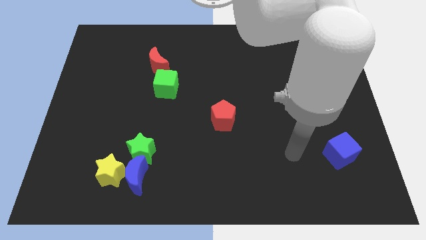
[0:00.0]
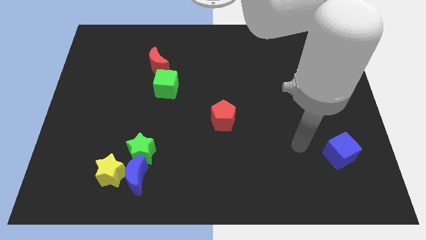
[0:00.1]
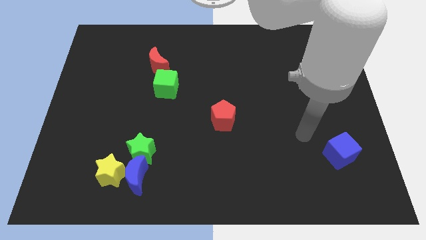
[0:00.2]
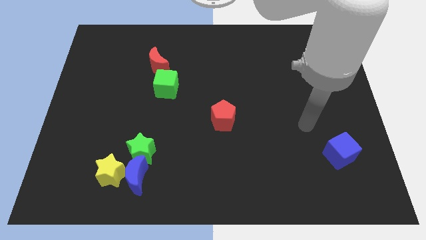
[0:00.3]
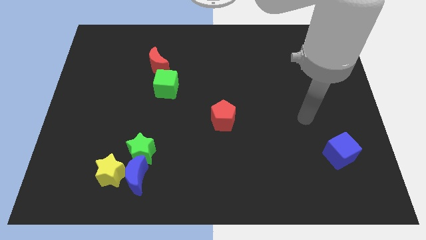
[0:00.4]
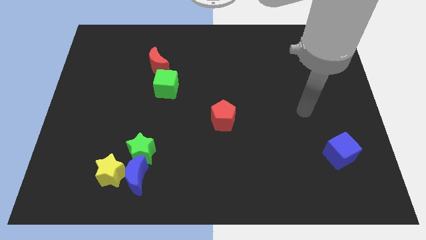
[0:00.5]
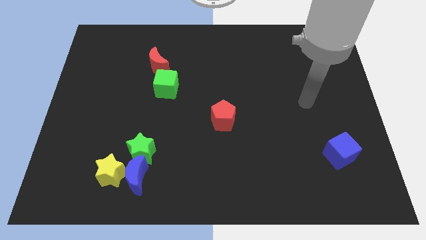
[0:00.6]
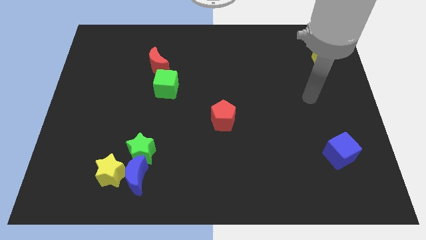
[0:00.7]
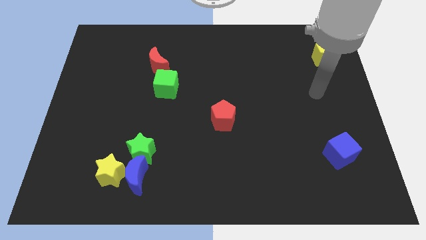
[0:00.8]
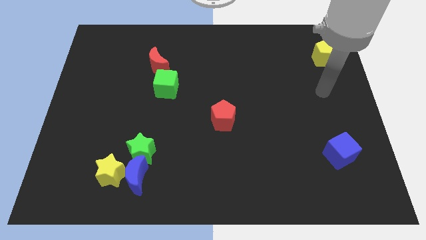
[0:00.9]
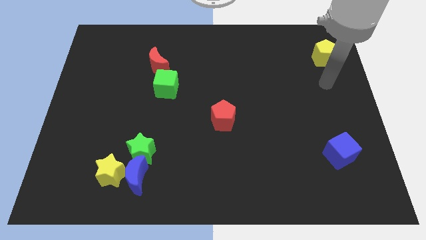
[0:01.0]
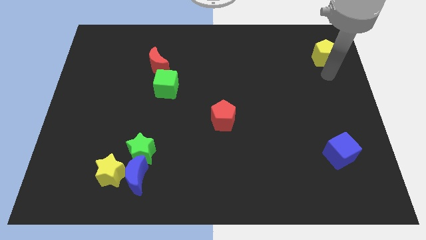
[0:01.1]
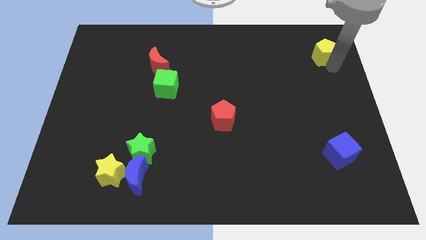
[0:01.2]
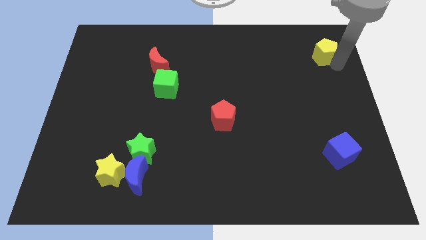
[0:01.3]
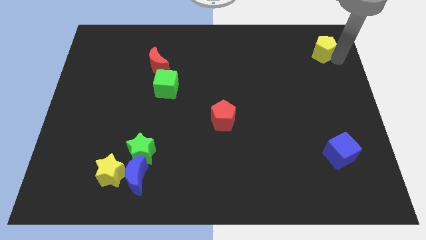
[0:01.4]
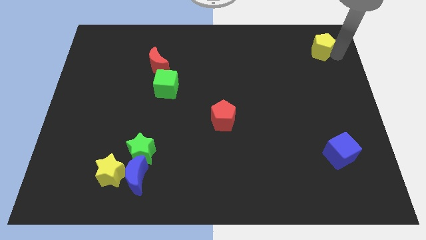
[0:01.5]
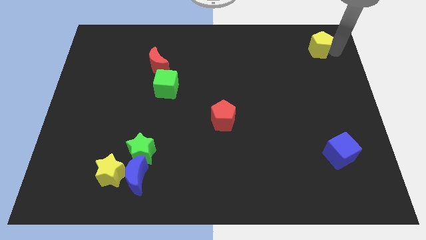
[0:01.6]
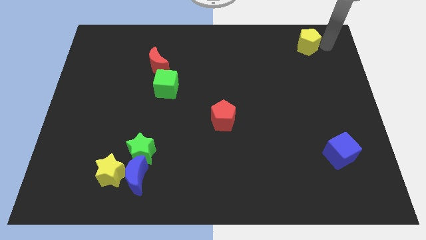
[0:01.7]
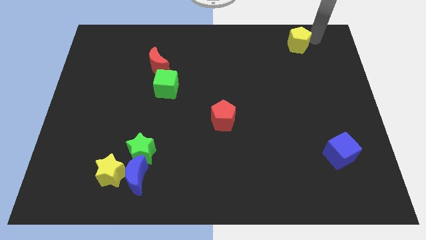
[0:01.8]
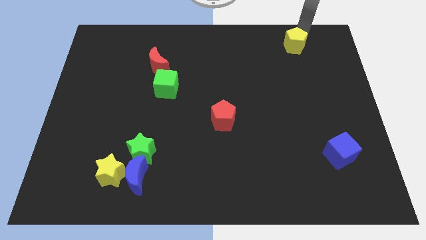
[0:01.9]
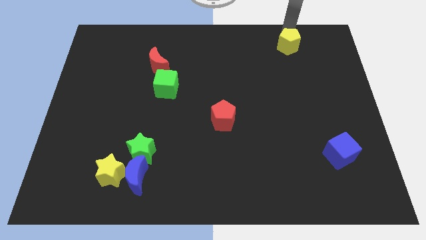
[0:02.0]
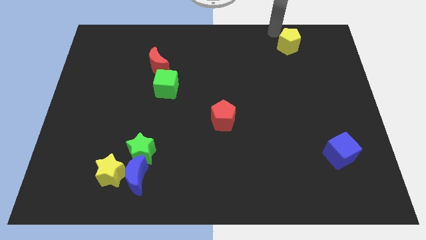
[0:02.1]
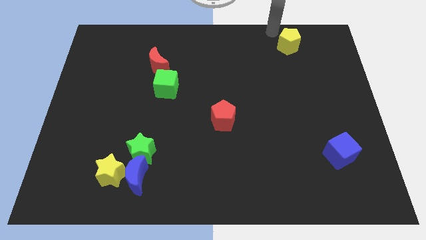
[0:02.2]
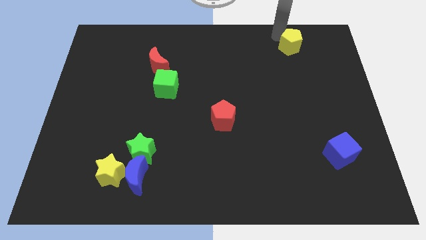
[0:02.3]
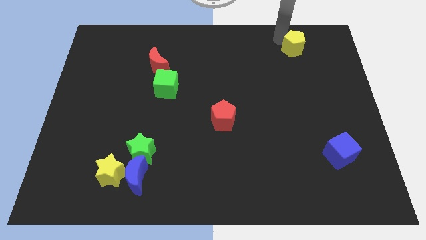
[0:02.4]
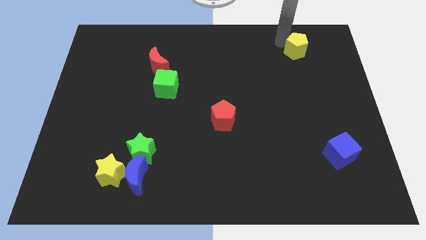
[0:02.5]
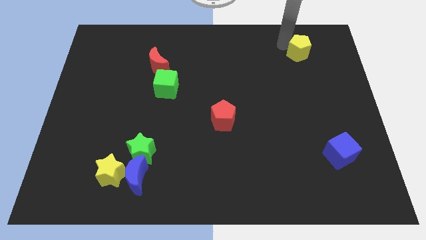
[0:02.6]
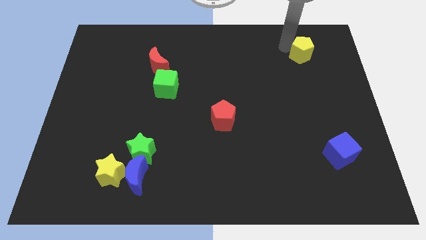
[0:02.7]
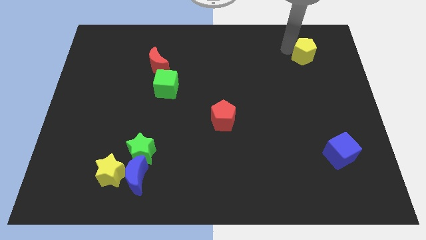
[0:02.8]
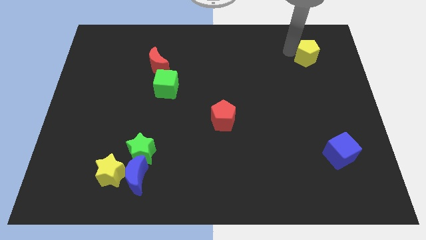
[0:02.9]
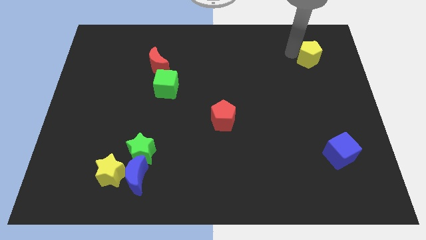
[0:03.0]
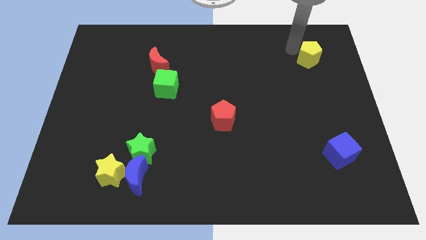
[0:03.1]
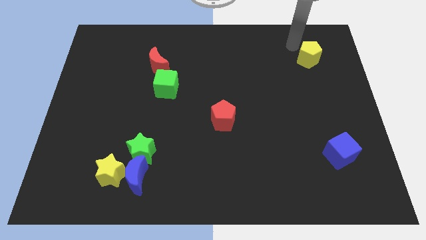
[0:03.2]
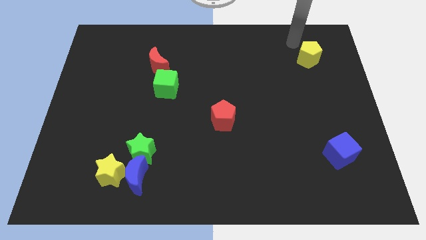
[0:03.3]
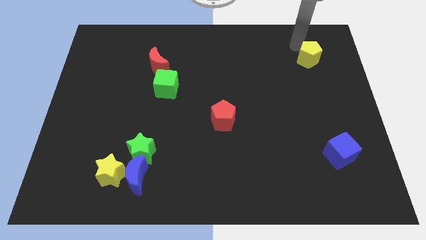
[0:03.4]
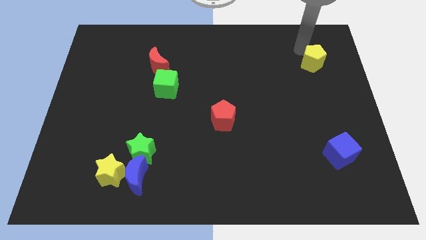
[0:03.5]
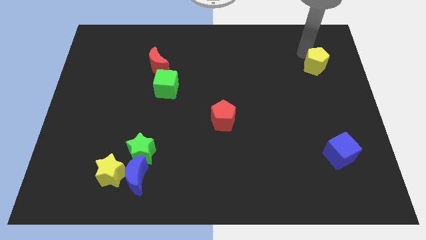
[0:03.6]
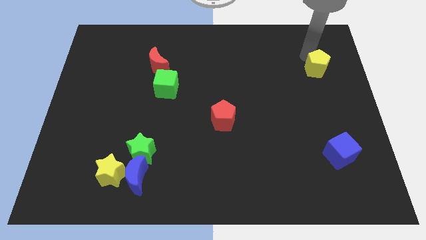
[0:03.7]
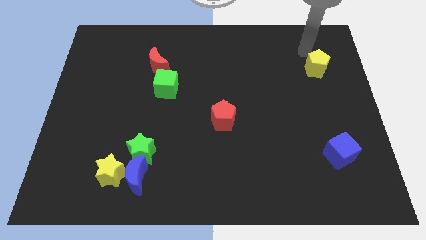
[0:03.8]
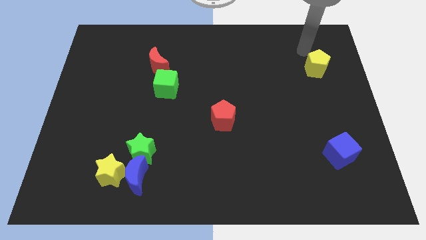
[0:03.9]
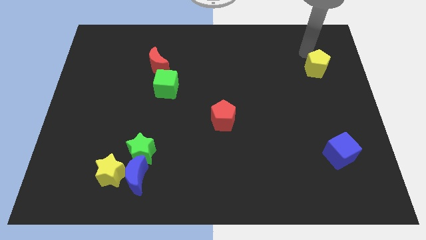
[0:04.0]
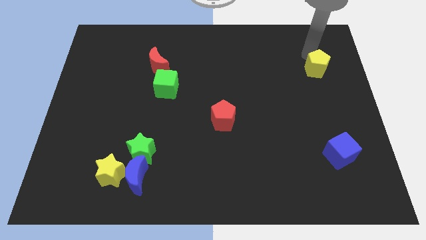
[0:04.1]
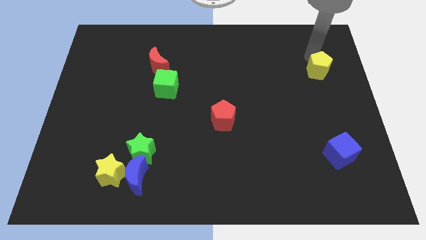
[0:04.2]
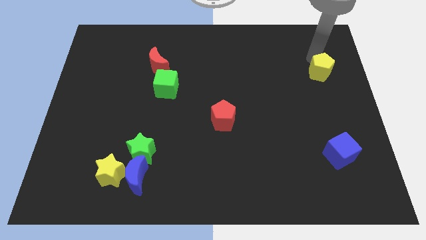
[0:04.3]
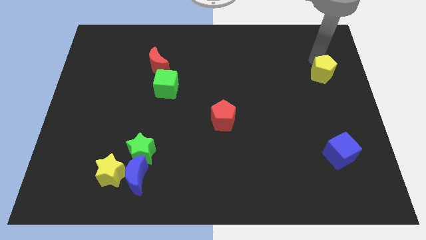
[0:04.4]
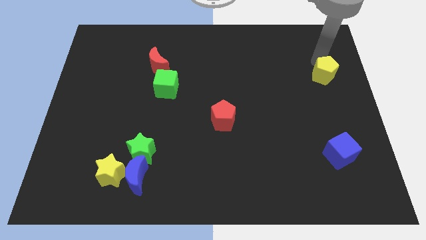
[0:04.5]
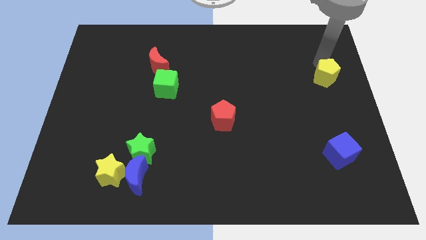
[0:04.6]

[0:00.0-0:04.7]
slide the yellow pentagon a little downwards

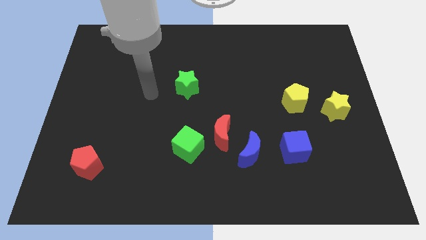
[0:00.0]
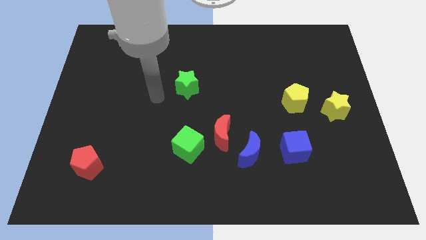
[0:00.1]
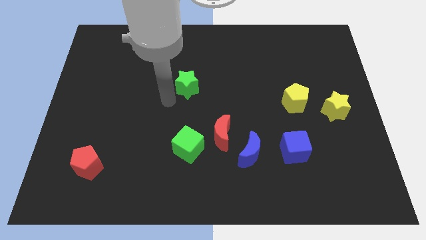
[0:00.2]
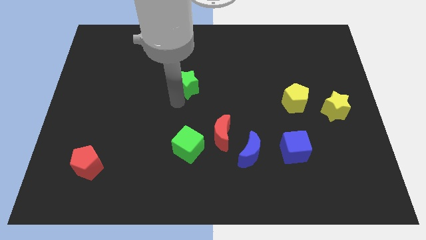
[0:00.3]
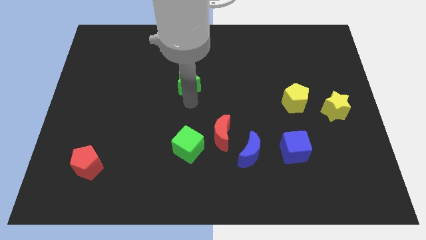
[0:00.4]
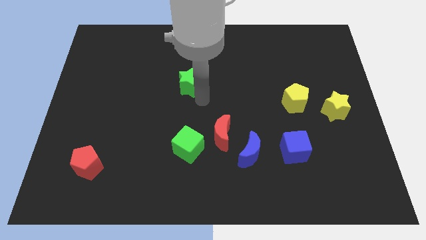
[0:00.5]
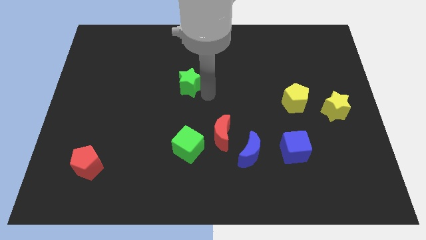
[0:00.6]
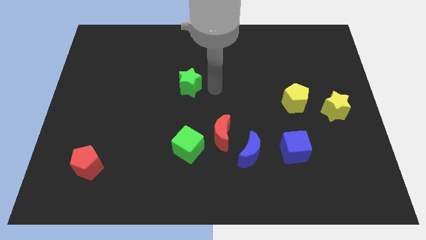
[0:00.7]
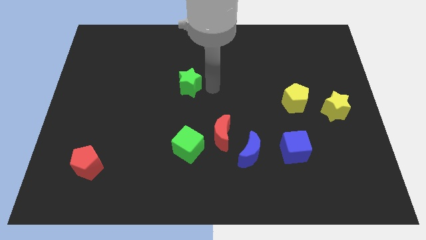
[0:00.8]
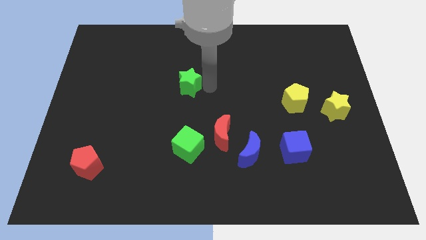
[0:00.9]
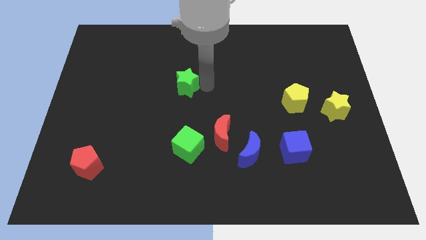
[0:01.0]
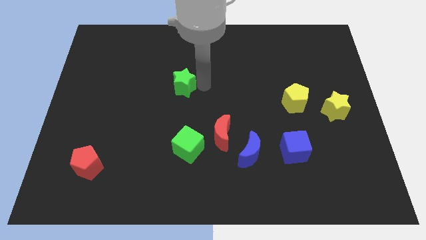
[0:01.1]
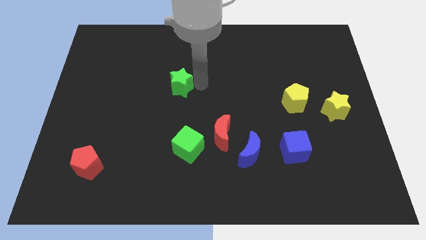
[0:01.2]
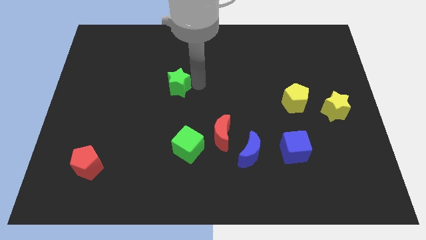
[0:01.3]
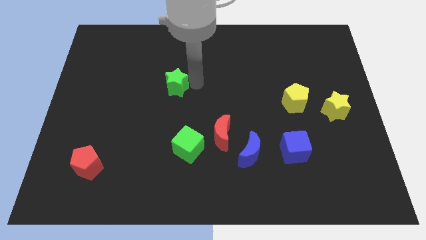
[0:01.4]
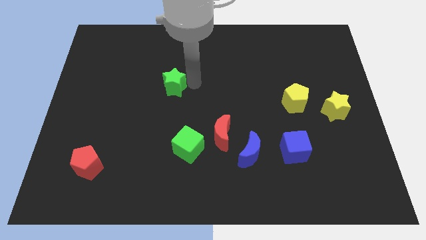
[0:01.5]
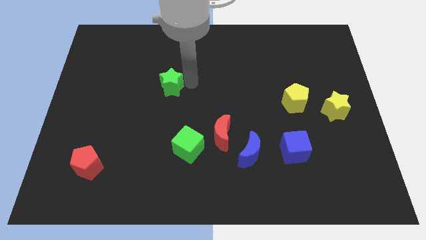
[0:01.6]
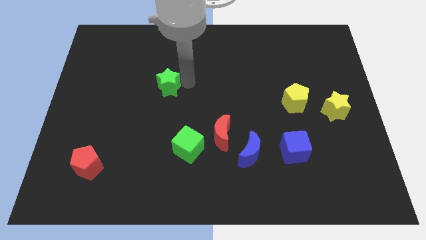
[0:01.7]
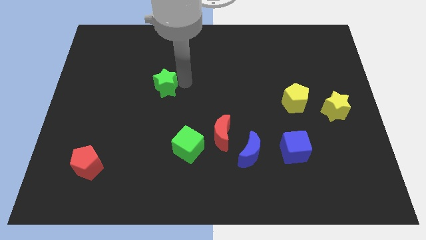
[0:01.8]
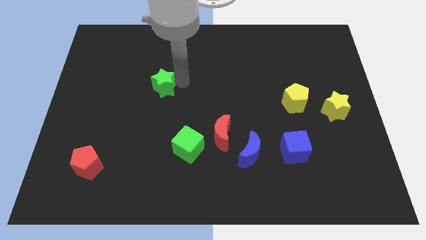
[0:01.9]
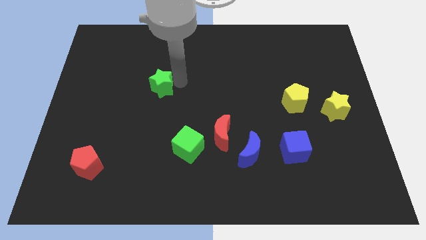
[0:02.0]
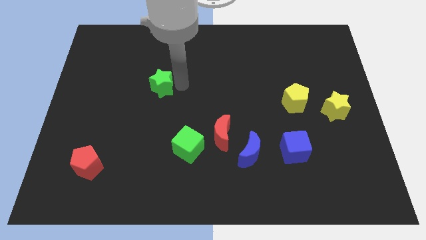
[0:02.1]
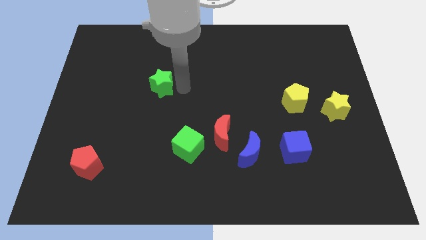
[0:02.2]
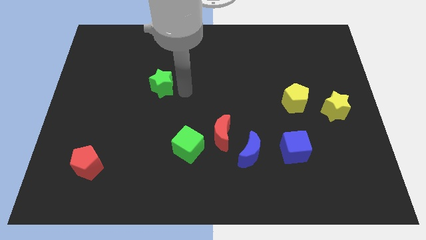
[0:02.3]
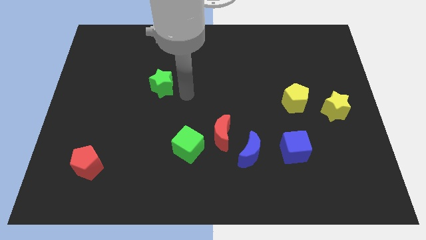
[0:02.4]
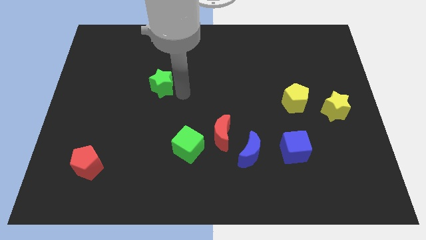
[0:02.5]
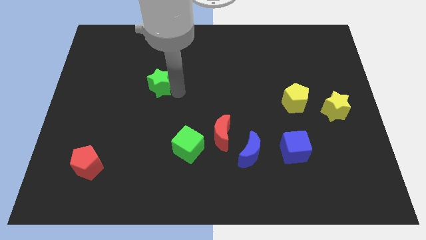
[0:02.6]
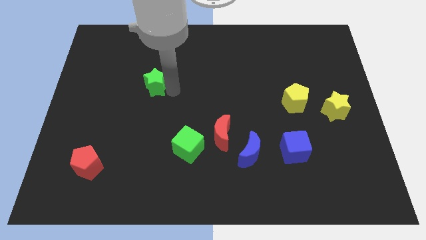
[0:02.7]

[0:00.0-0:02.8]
push the green star a little to the left

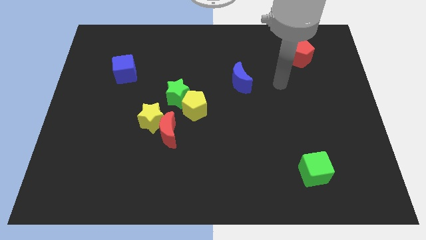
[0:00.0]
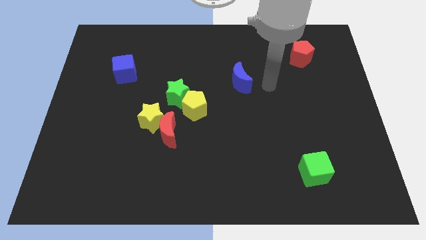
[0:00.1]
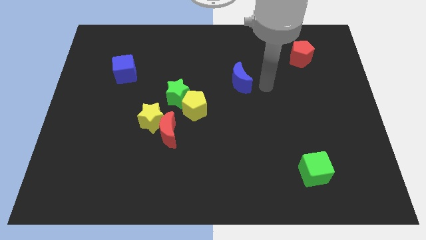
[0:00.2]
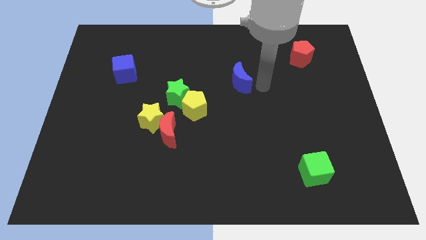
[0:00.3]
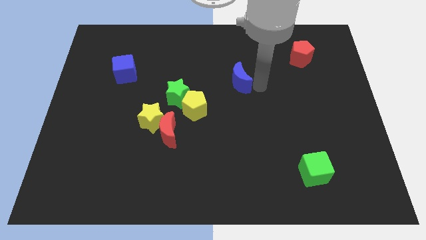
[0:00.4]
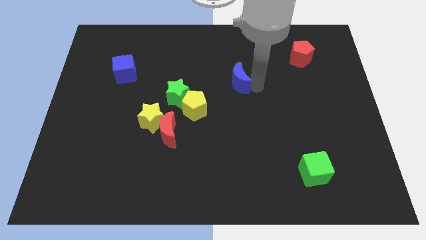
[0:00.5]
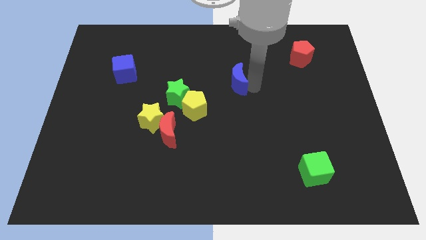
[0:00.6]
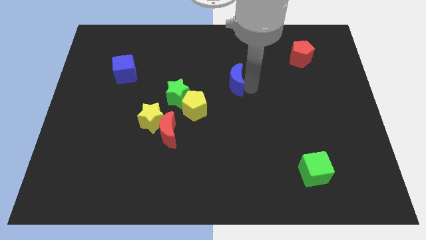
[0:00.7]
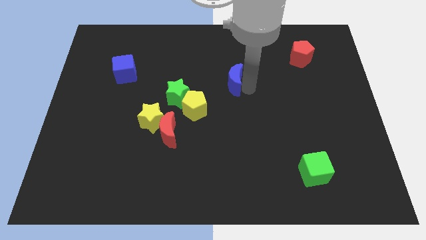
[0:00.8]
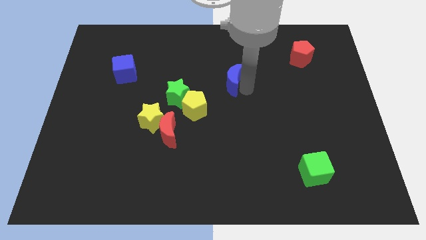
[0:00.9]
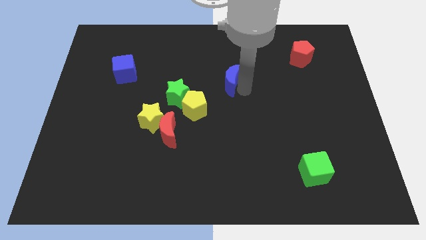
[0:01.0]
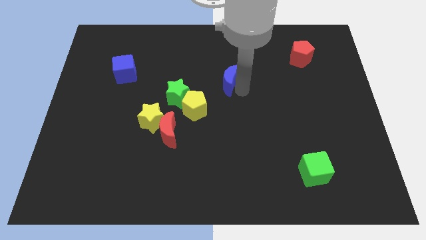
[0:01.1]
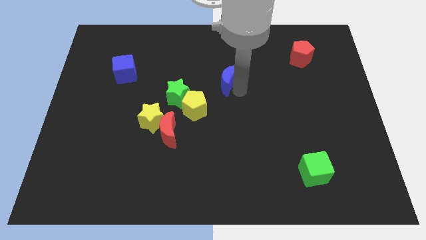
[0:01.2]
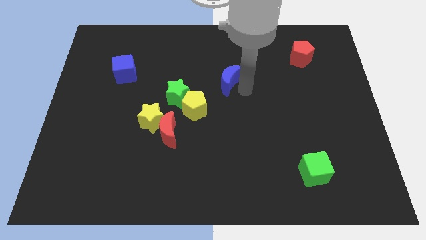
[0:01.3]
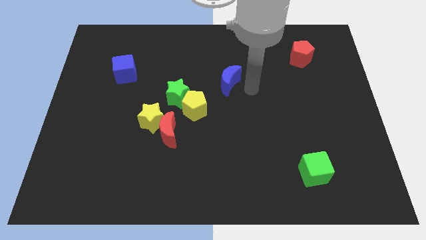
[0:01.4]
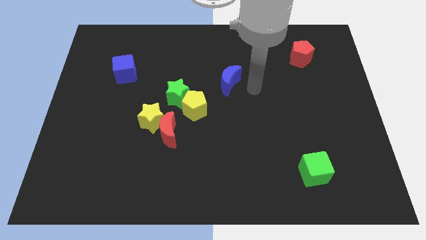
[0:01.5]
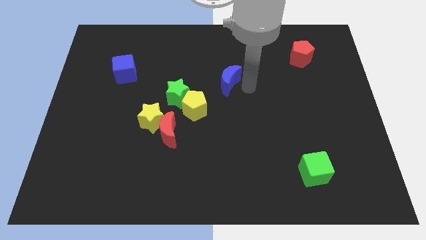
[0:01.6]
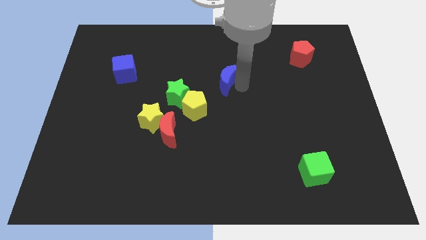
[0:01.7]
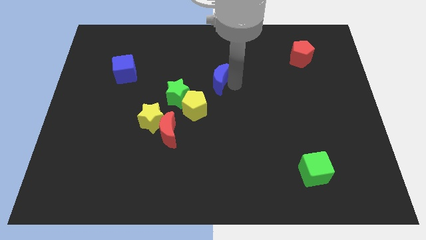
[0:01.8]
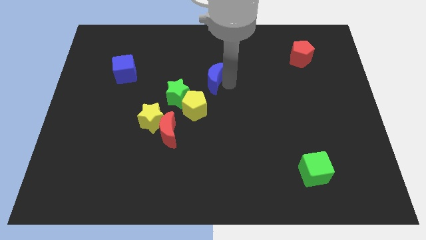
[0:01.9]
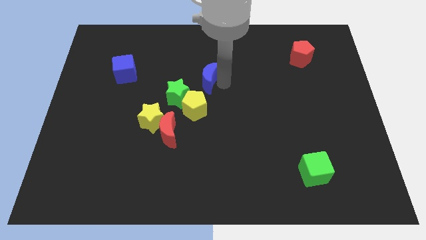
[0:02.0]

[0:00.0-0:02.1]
slide the blue moon left a bit
